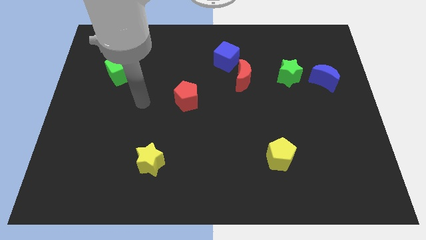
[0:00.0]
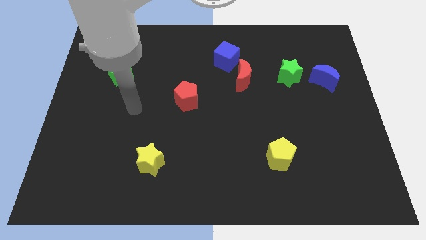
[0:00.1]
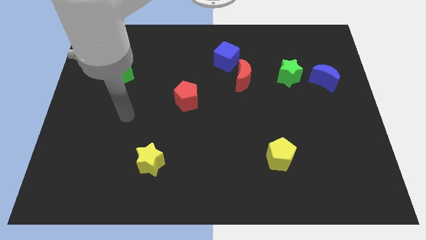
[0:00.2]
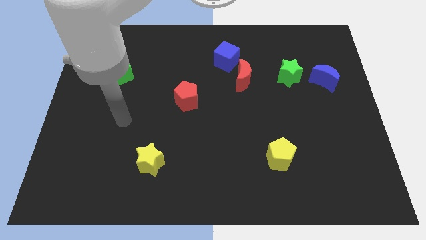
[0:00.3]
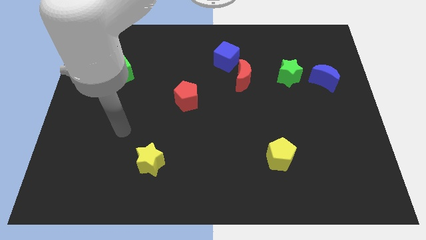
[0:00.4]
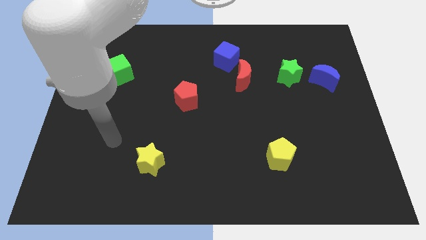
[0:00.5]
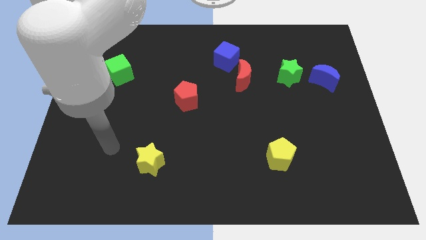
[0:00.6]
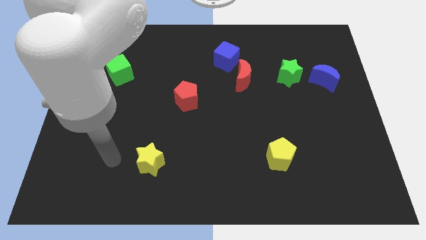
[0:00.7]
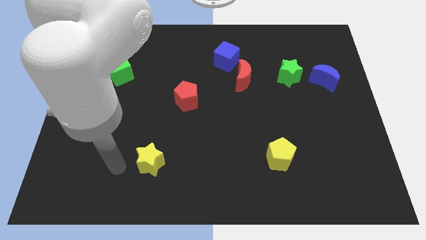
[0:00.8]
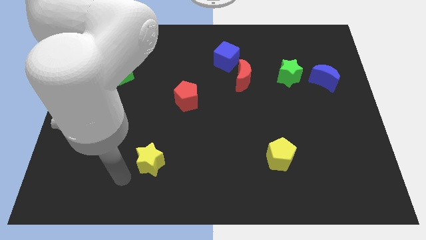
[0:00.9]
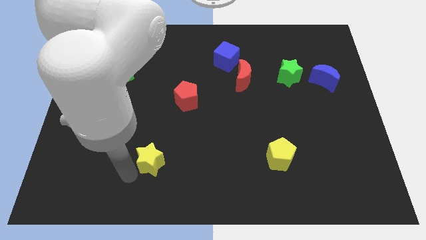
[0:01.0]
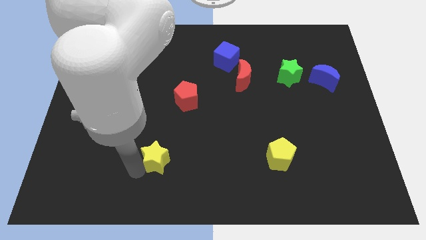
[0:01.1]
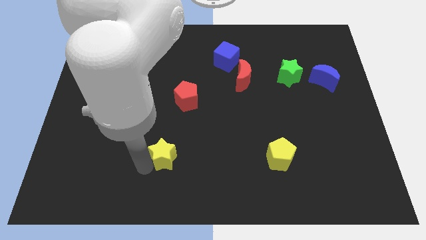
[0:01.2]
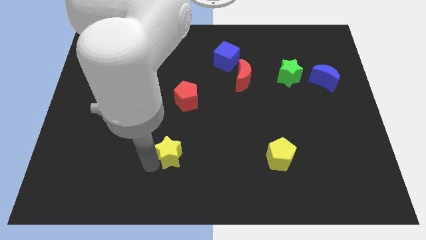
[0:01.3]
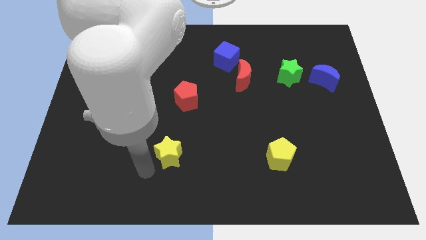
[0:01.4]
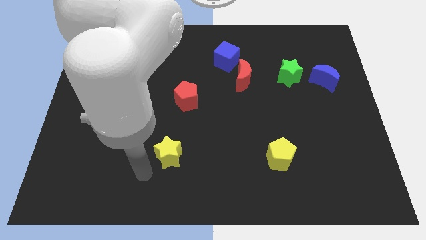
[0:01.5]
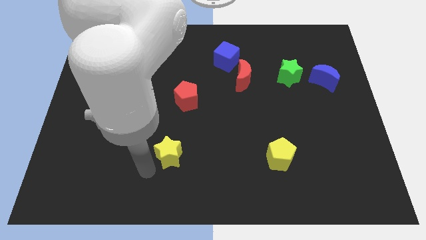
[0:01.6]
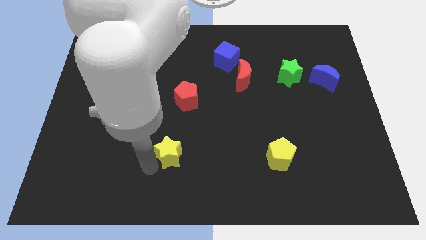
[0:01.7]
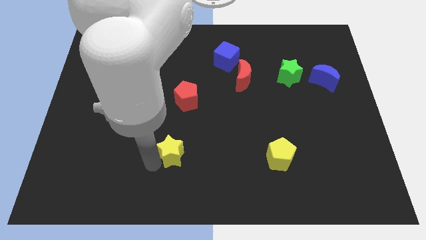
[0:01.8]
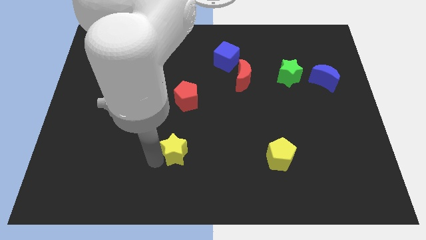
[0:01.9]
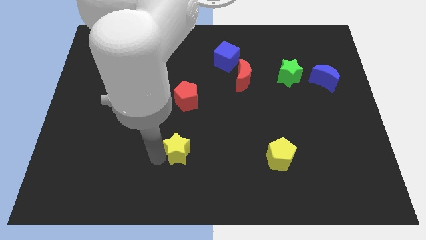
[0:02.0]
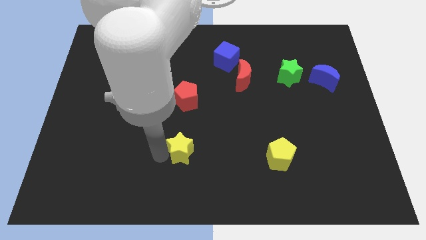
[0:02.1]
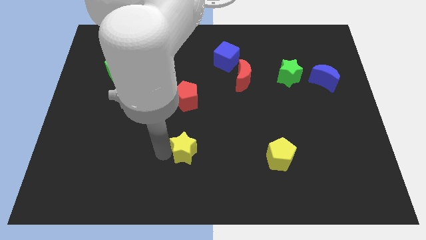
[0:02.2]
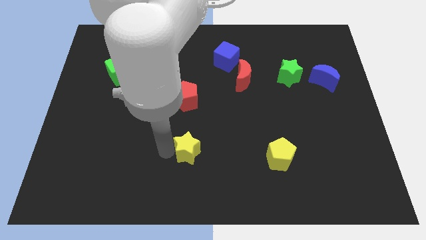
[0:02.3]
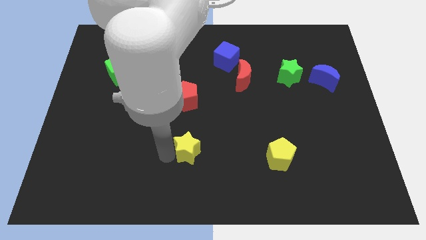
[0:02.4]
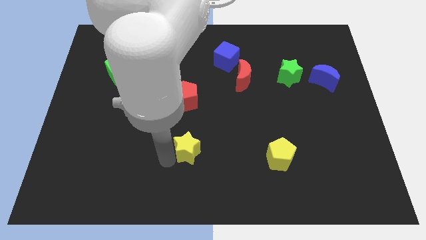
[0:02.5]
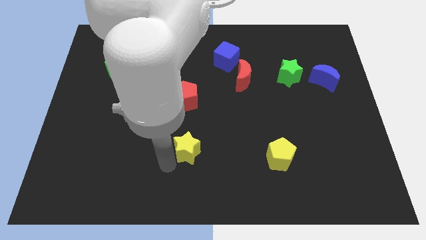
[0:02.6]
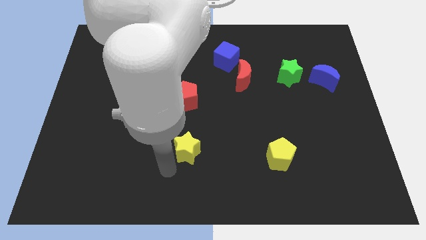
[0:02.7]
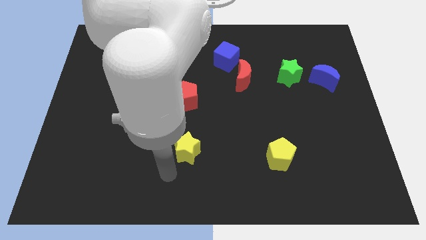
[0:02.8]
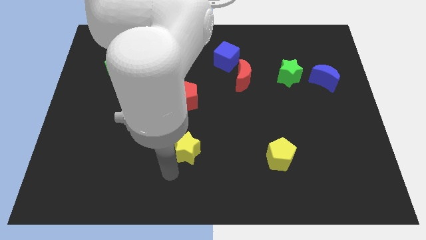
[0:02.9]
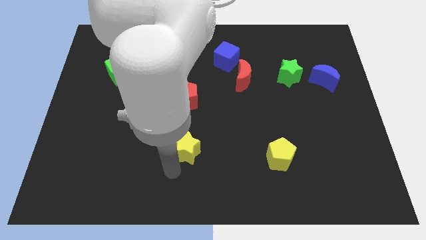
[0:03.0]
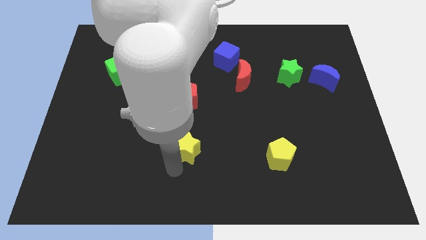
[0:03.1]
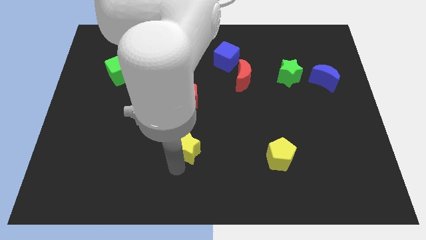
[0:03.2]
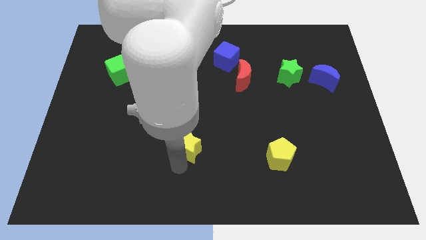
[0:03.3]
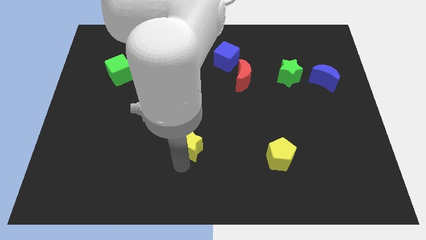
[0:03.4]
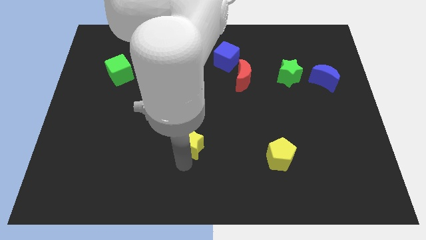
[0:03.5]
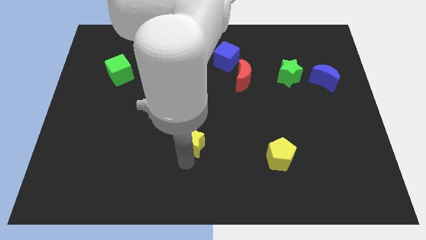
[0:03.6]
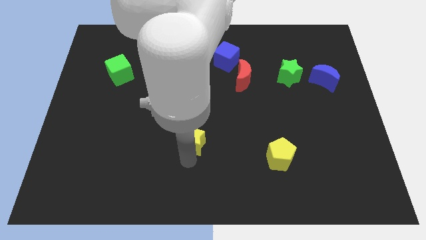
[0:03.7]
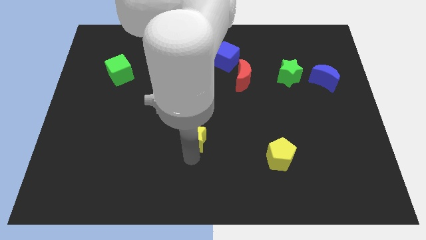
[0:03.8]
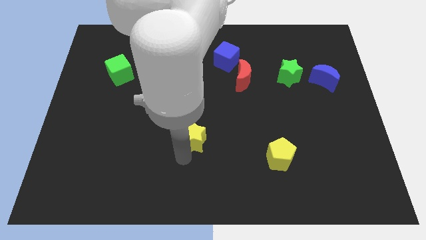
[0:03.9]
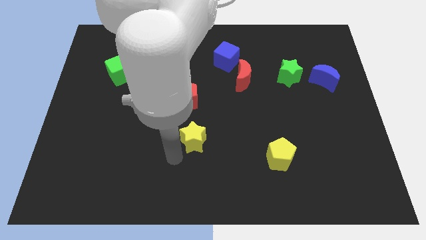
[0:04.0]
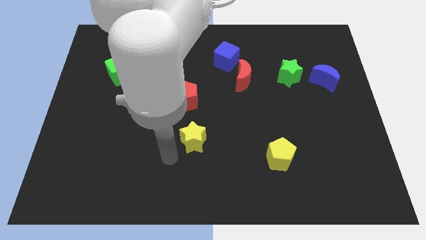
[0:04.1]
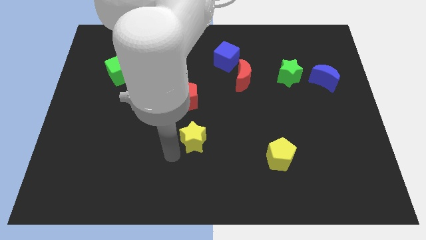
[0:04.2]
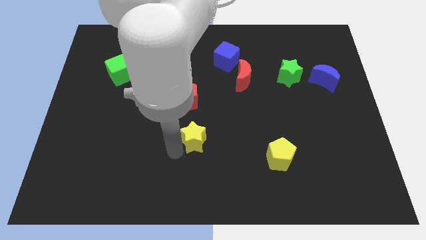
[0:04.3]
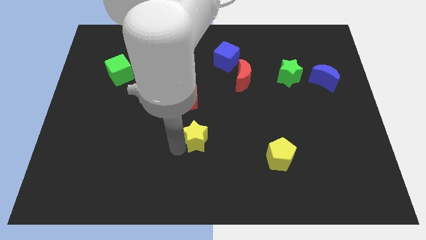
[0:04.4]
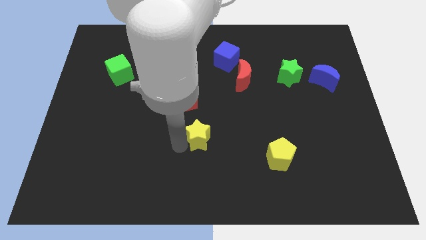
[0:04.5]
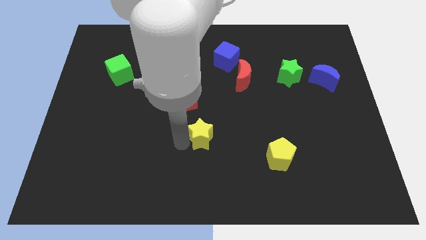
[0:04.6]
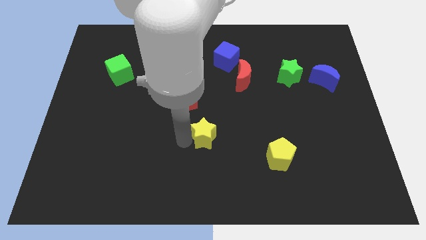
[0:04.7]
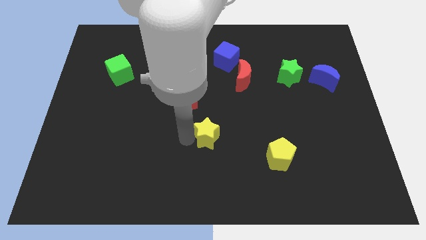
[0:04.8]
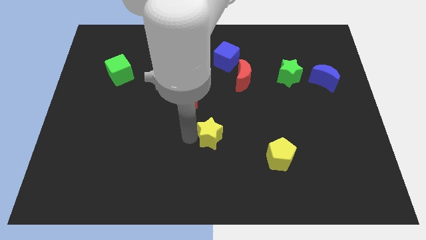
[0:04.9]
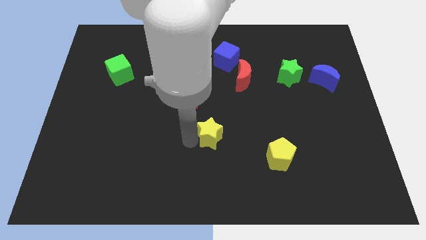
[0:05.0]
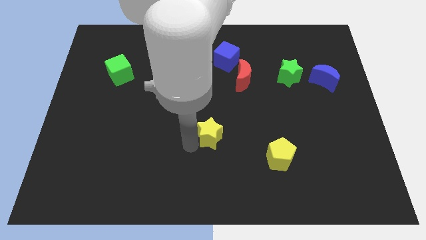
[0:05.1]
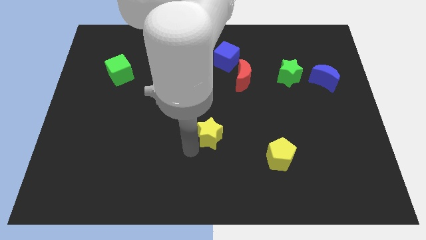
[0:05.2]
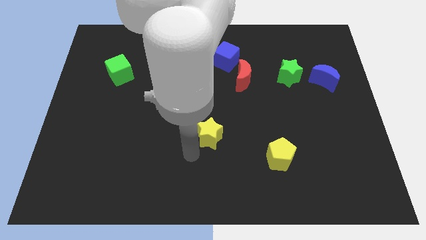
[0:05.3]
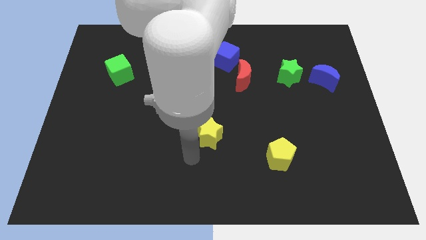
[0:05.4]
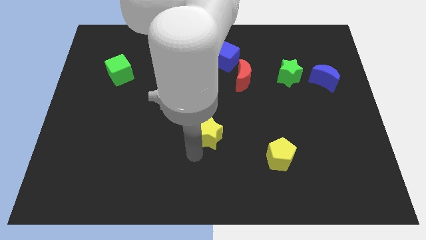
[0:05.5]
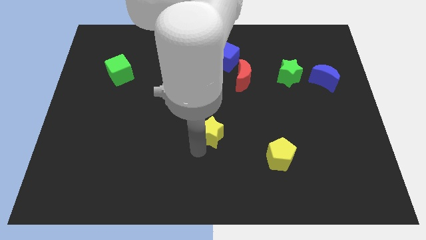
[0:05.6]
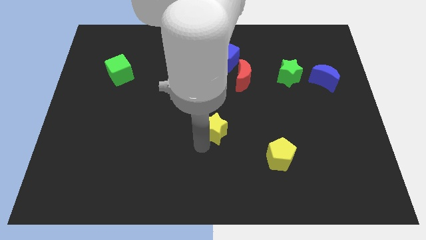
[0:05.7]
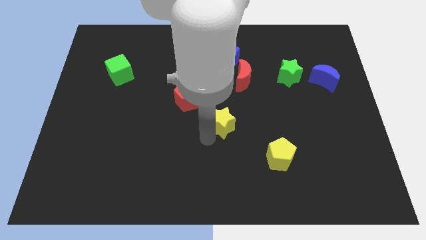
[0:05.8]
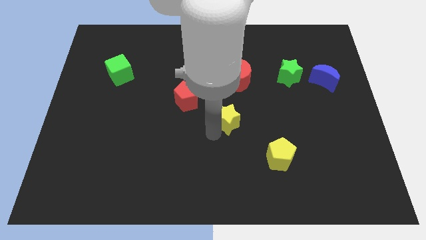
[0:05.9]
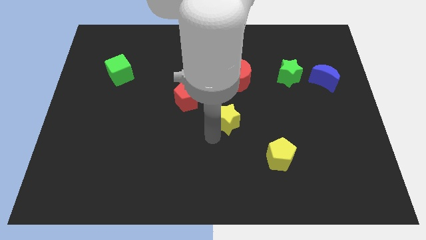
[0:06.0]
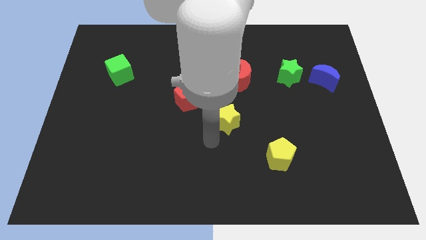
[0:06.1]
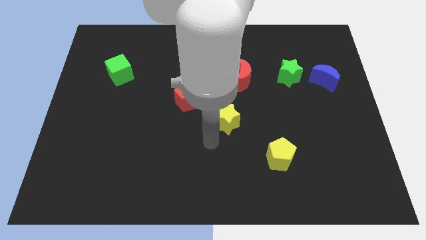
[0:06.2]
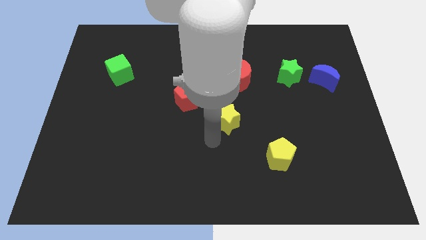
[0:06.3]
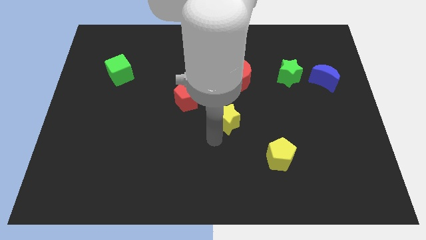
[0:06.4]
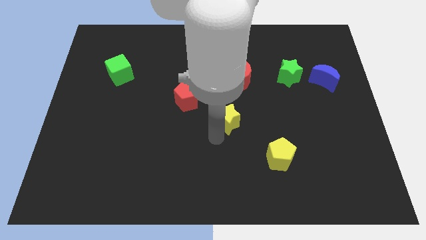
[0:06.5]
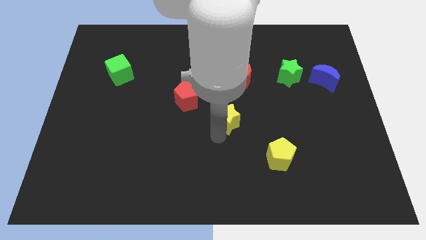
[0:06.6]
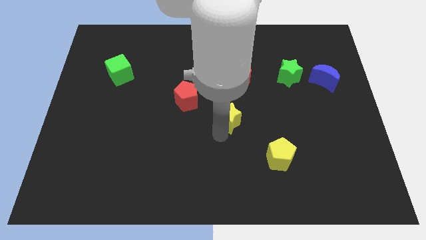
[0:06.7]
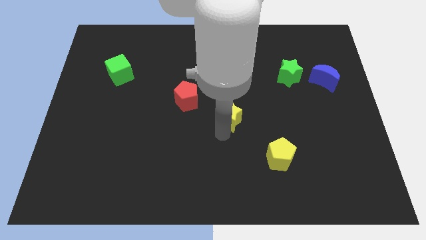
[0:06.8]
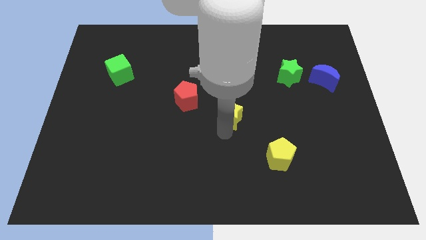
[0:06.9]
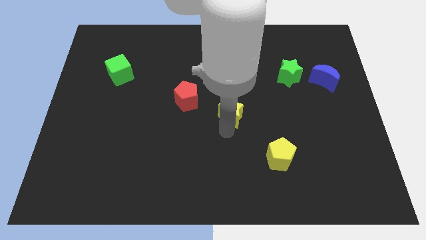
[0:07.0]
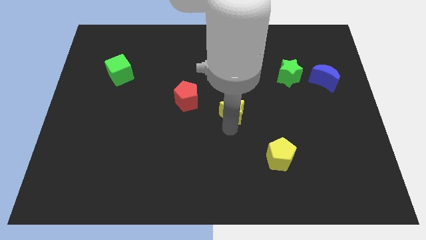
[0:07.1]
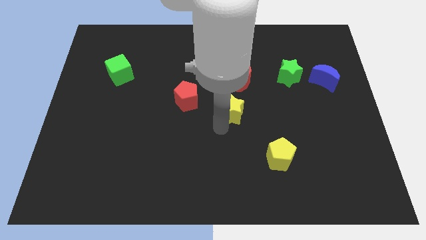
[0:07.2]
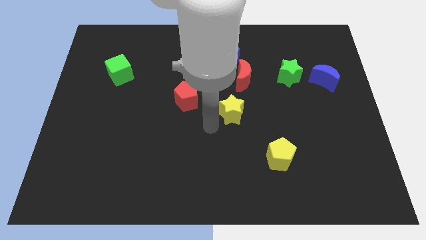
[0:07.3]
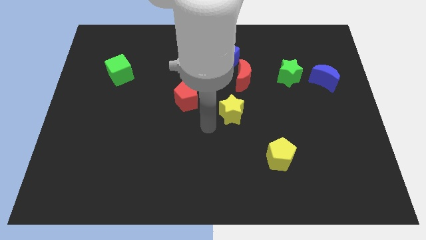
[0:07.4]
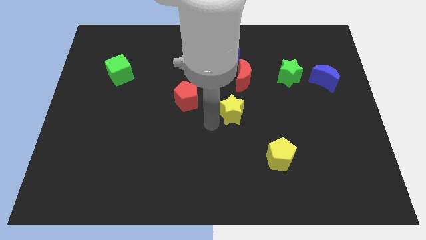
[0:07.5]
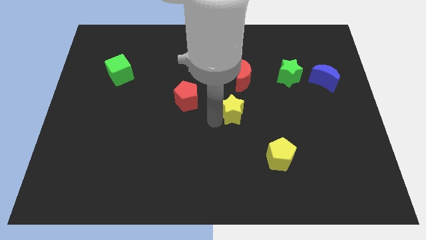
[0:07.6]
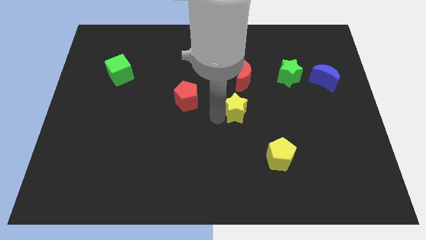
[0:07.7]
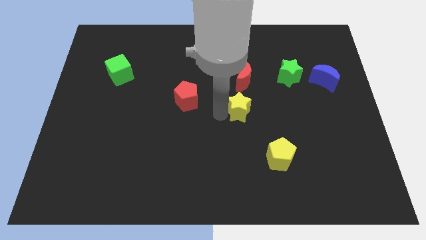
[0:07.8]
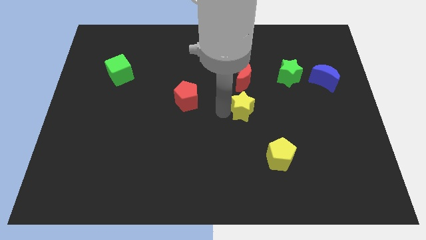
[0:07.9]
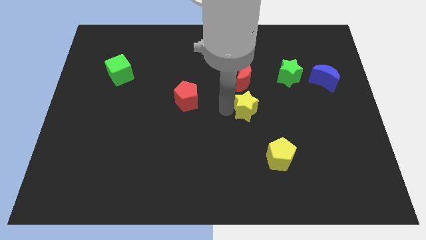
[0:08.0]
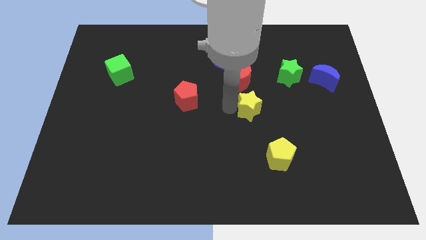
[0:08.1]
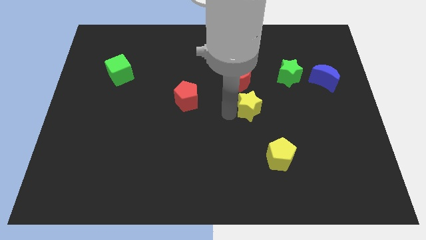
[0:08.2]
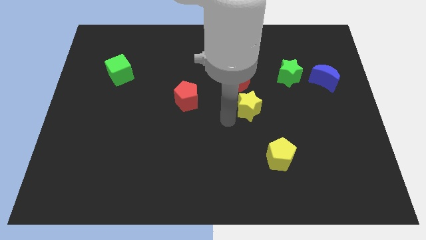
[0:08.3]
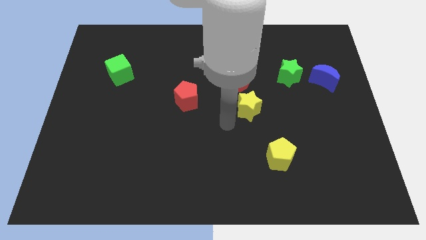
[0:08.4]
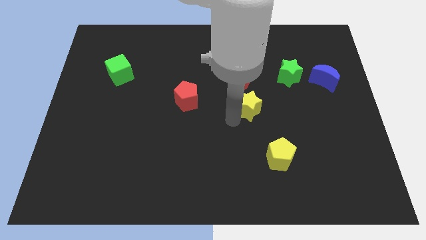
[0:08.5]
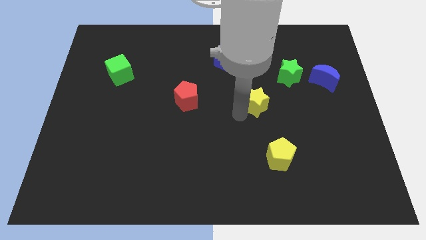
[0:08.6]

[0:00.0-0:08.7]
move the yellow star diagonally down and to the left of the green star
